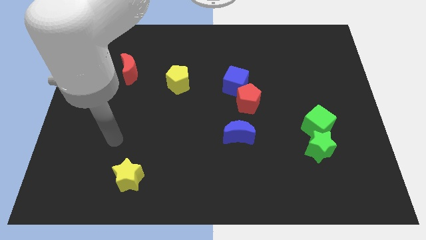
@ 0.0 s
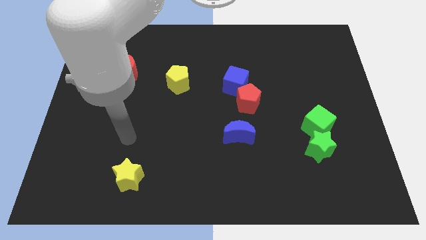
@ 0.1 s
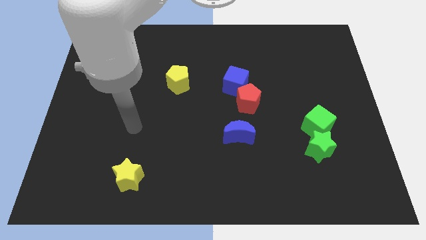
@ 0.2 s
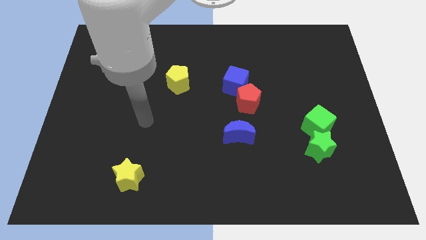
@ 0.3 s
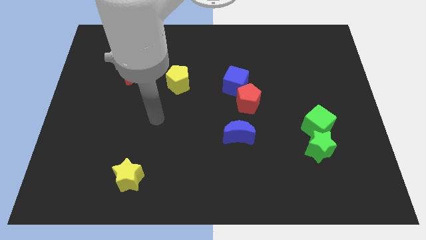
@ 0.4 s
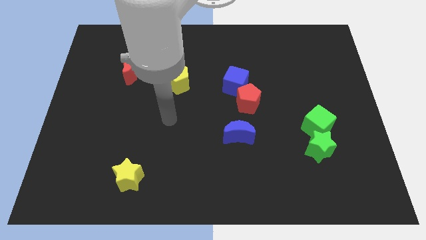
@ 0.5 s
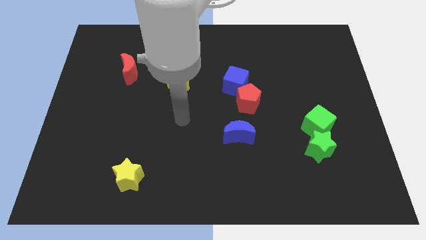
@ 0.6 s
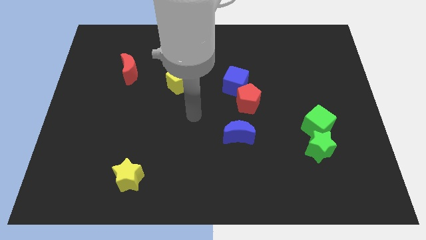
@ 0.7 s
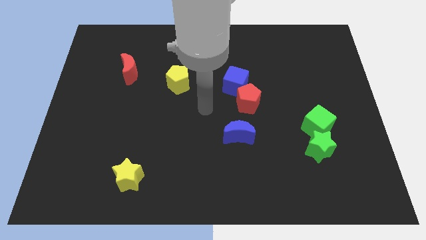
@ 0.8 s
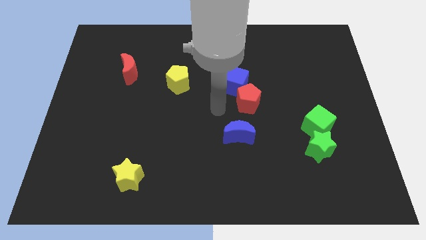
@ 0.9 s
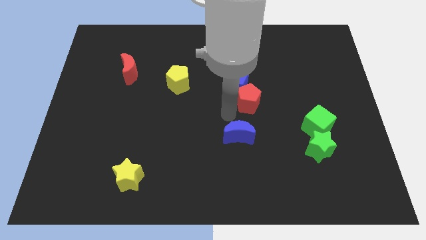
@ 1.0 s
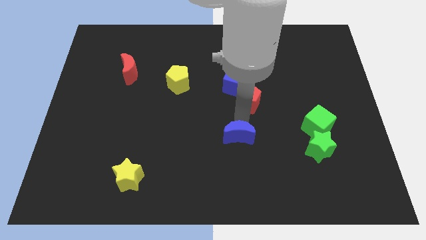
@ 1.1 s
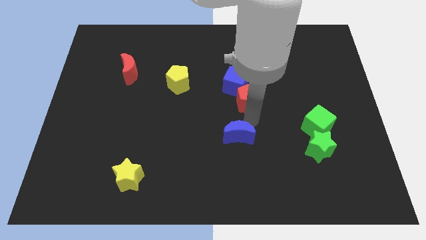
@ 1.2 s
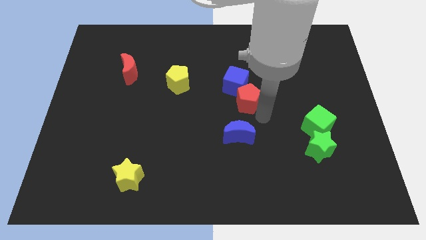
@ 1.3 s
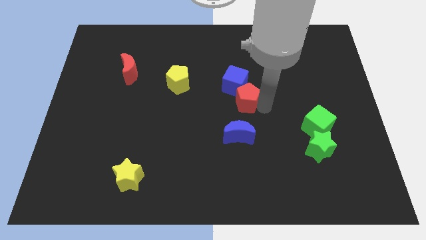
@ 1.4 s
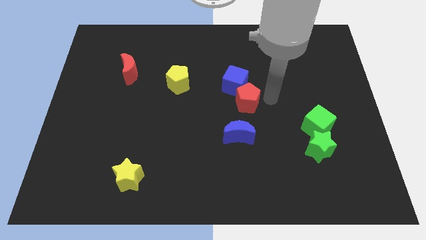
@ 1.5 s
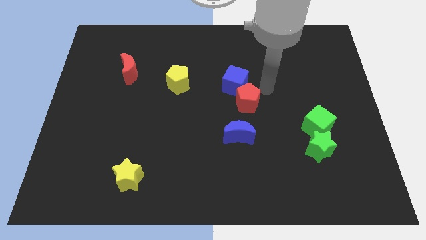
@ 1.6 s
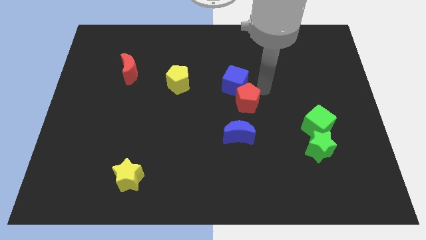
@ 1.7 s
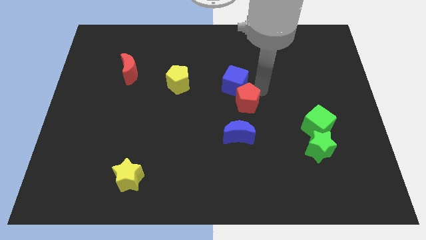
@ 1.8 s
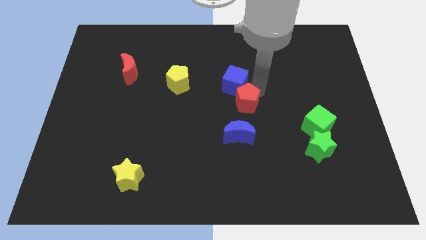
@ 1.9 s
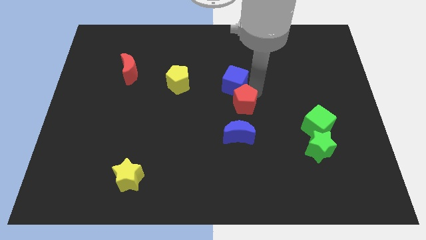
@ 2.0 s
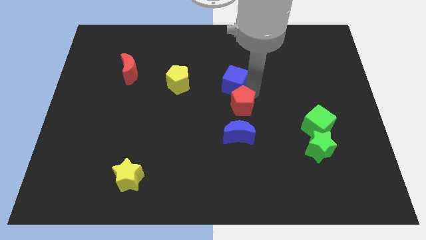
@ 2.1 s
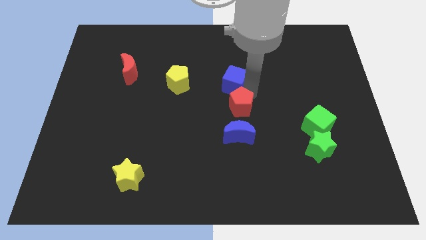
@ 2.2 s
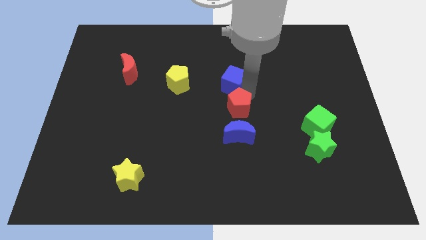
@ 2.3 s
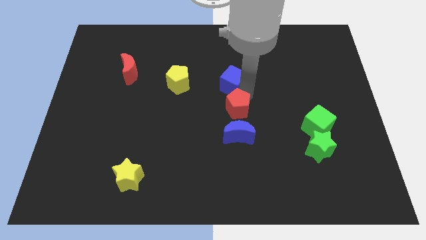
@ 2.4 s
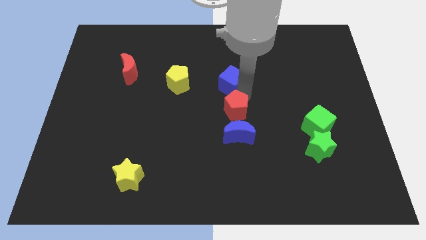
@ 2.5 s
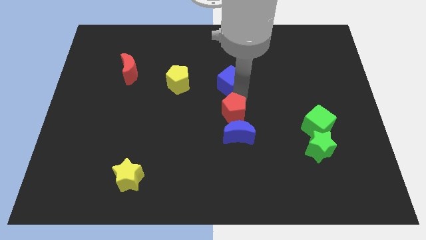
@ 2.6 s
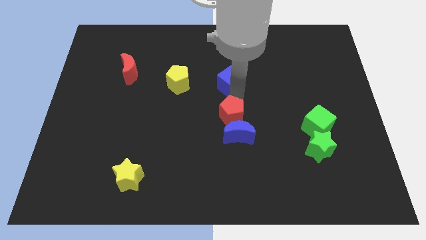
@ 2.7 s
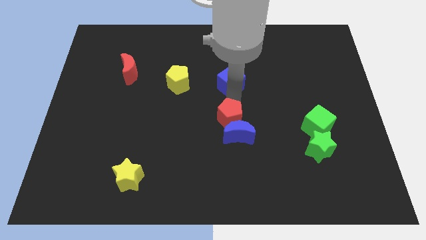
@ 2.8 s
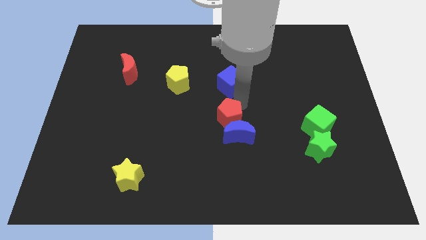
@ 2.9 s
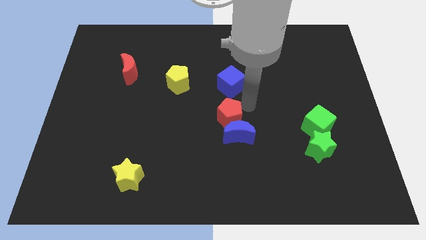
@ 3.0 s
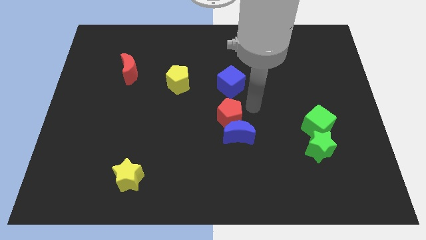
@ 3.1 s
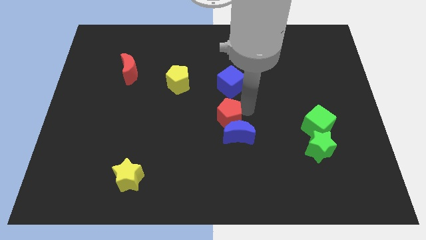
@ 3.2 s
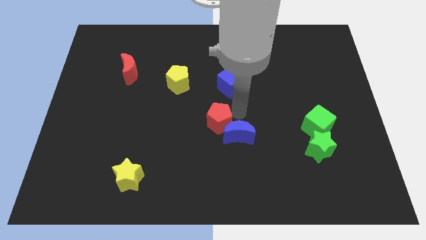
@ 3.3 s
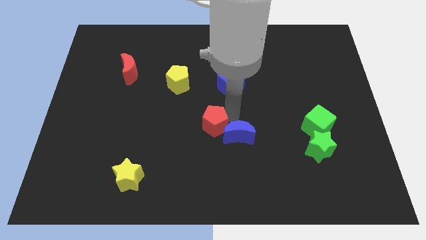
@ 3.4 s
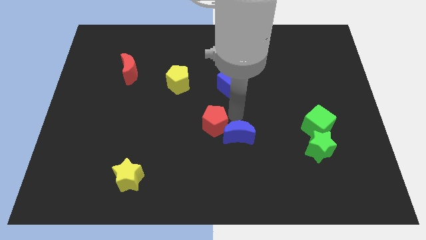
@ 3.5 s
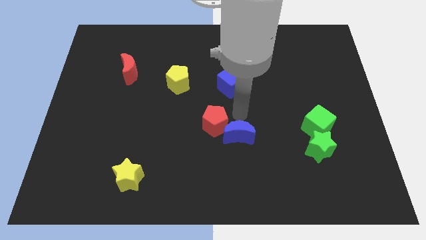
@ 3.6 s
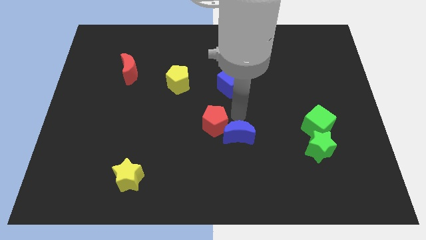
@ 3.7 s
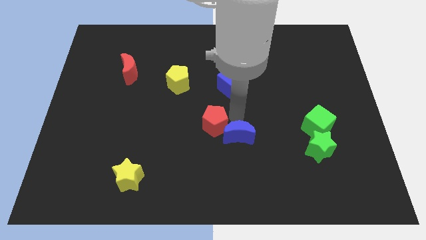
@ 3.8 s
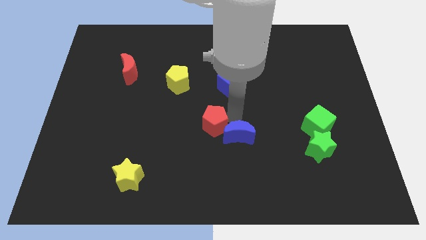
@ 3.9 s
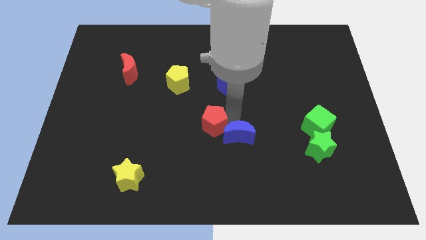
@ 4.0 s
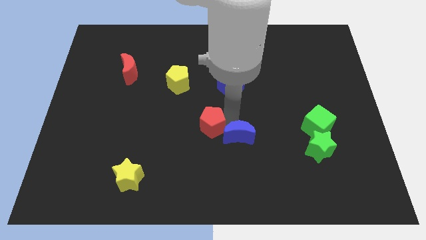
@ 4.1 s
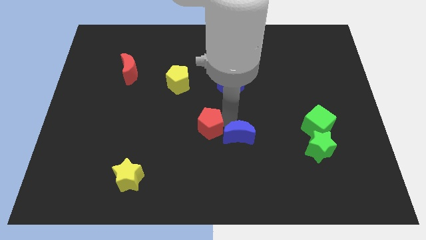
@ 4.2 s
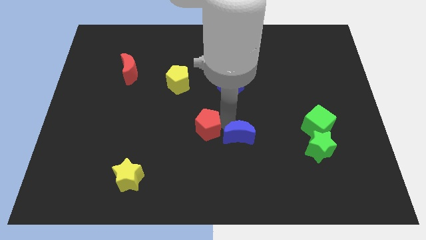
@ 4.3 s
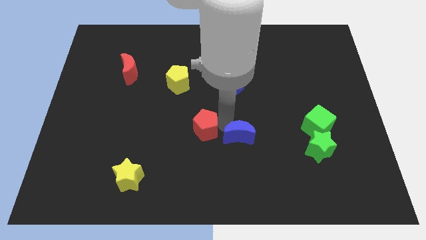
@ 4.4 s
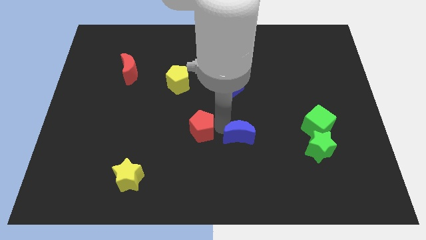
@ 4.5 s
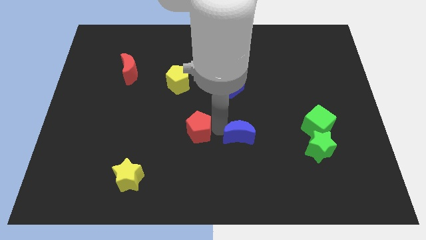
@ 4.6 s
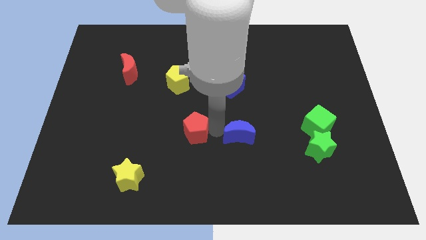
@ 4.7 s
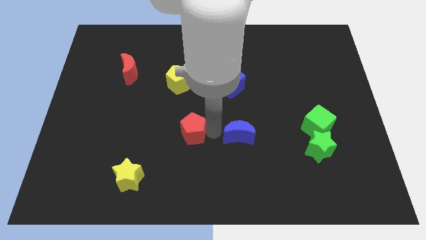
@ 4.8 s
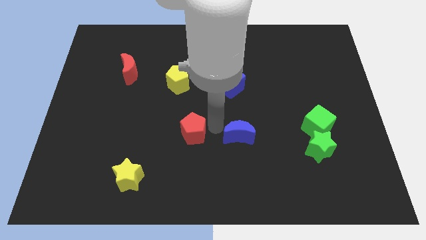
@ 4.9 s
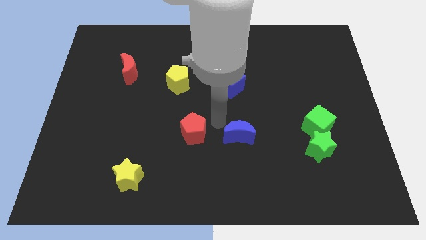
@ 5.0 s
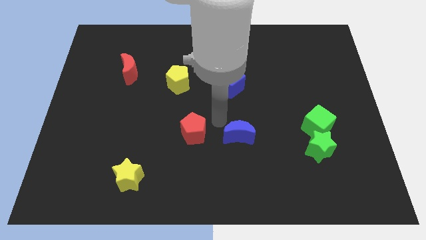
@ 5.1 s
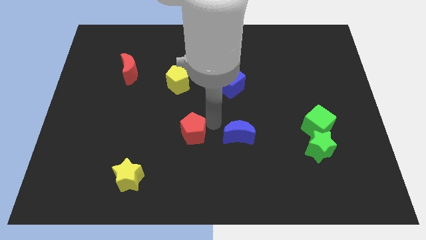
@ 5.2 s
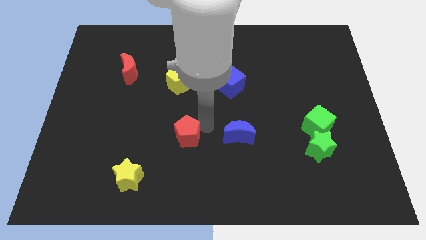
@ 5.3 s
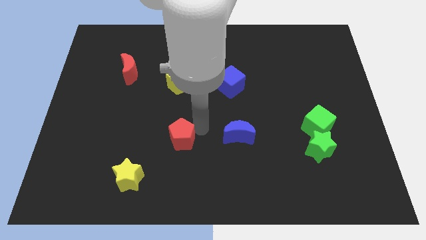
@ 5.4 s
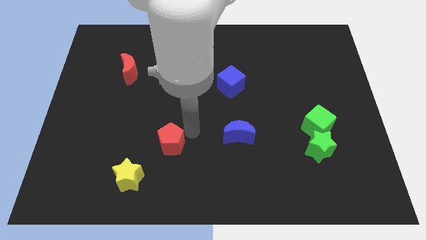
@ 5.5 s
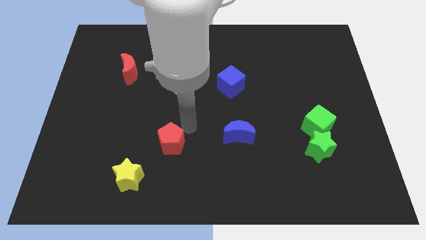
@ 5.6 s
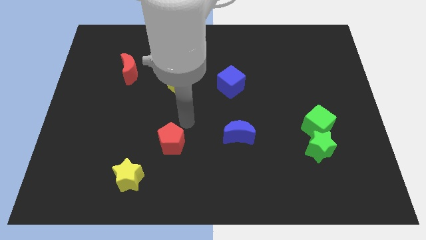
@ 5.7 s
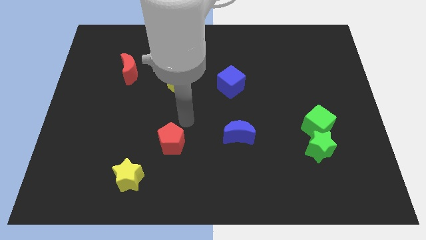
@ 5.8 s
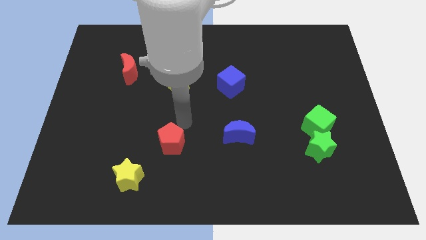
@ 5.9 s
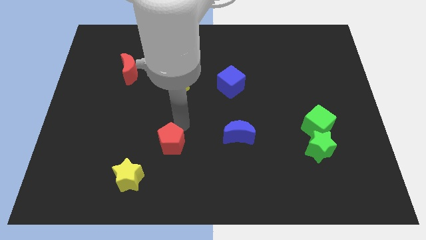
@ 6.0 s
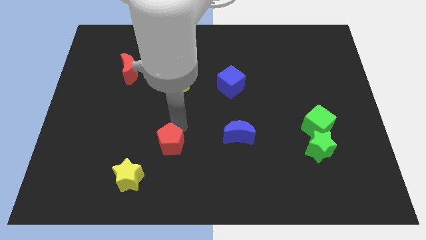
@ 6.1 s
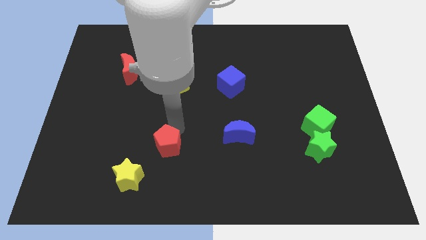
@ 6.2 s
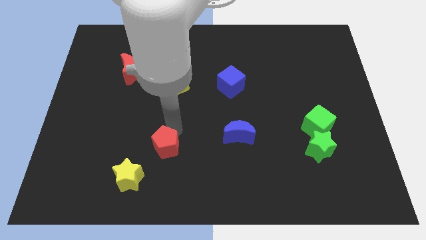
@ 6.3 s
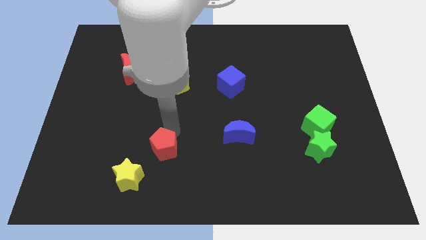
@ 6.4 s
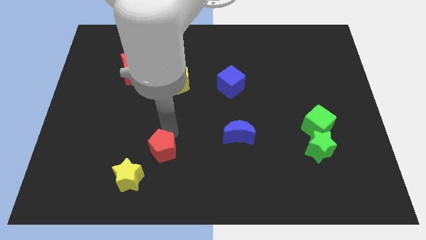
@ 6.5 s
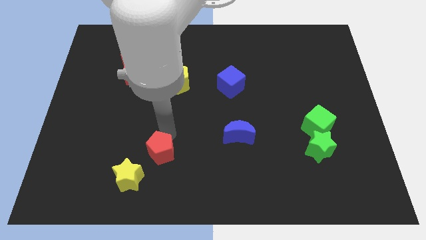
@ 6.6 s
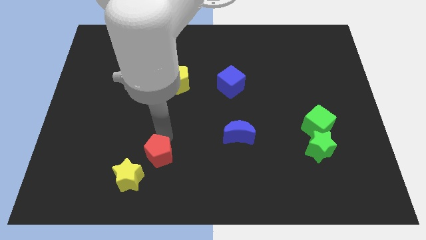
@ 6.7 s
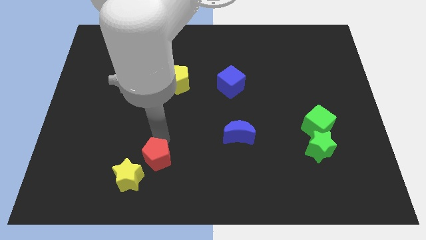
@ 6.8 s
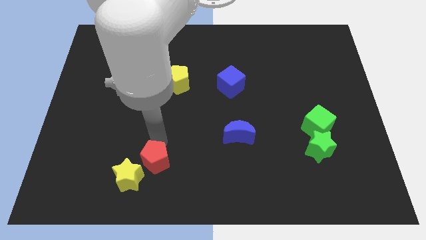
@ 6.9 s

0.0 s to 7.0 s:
slide the red pentagon to the yellow star
